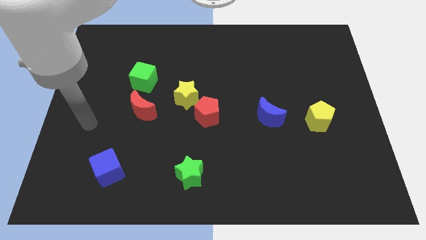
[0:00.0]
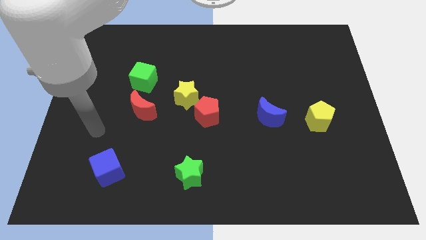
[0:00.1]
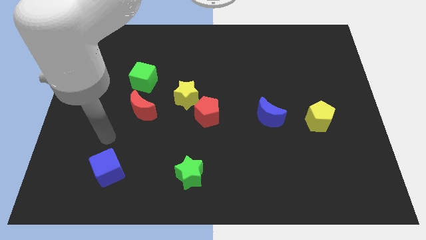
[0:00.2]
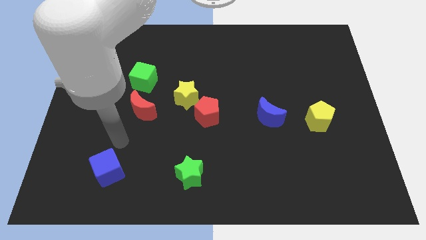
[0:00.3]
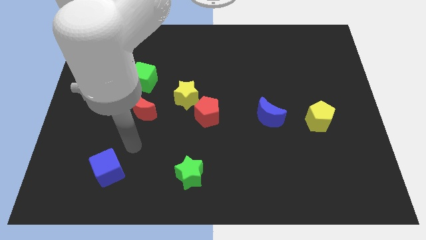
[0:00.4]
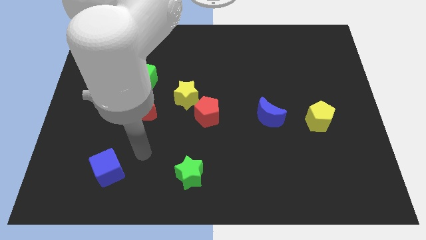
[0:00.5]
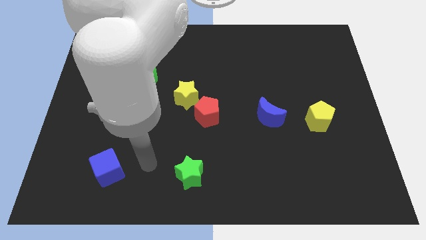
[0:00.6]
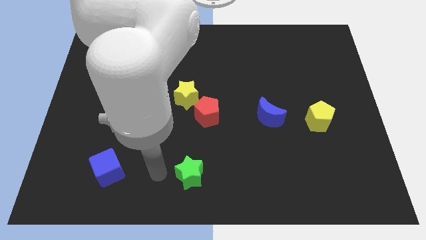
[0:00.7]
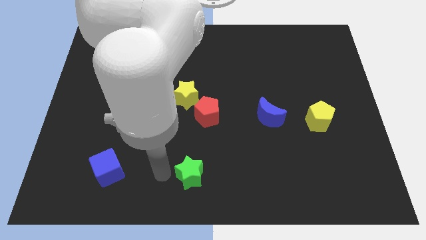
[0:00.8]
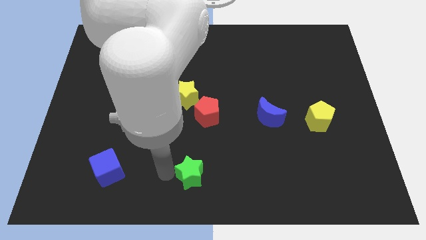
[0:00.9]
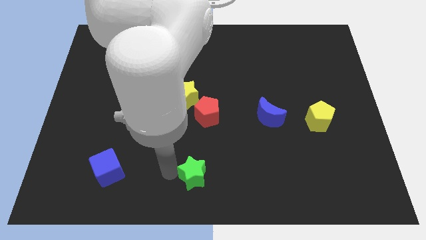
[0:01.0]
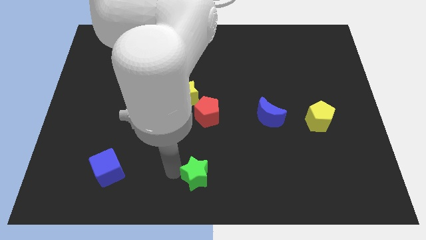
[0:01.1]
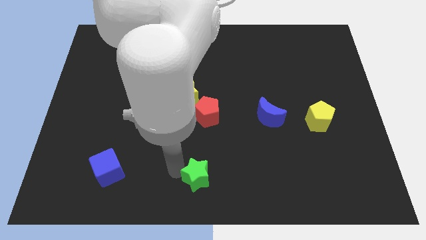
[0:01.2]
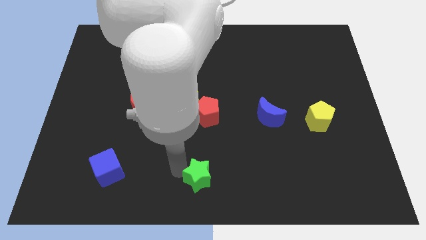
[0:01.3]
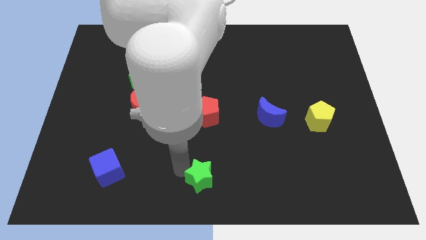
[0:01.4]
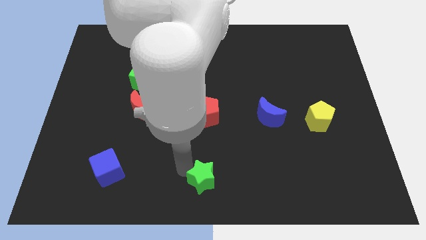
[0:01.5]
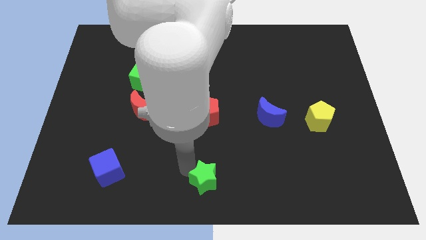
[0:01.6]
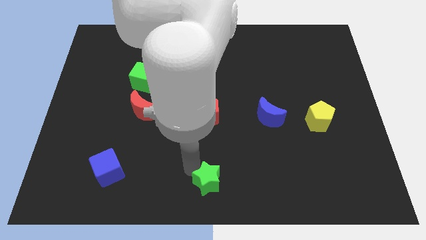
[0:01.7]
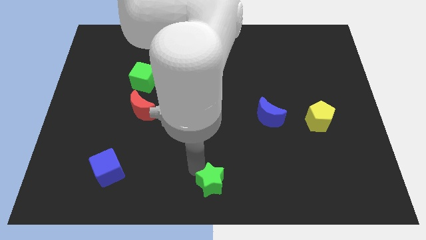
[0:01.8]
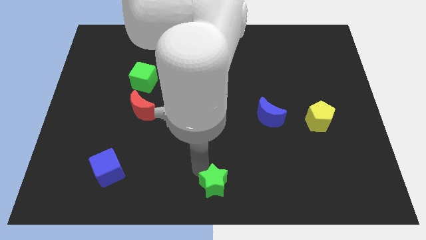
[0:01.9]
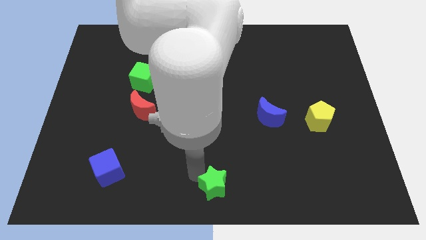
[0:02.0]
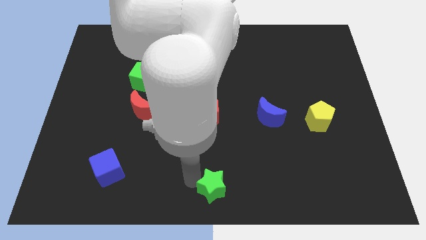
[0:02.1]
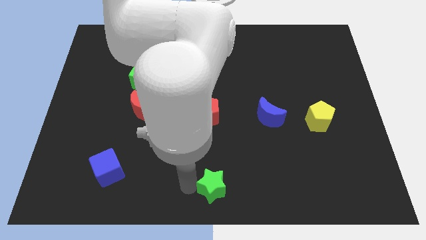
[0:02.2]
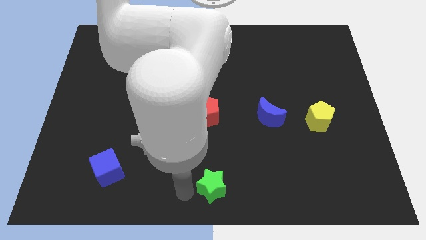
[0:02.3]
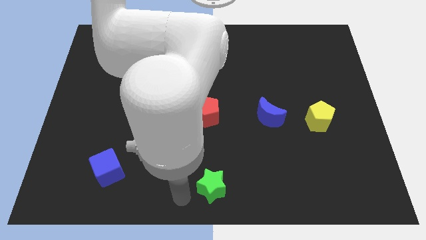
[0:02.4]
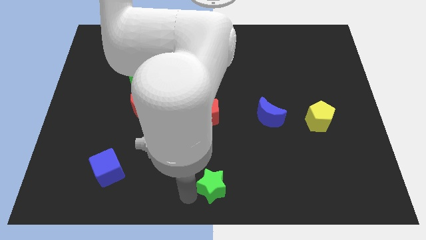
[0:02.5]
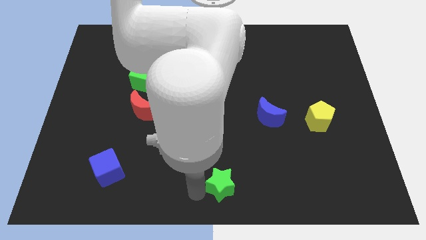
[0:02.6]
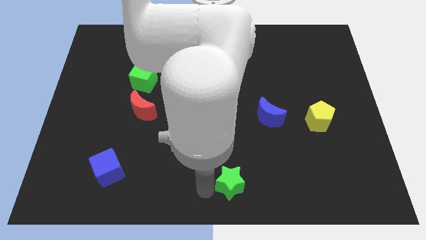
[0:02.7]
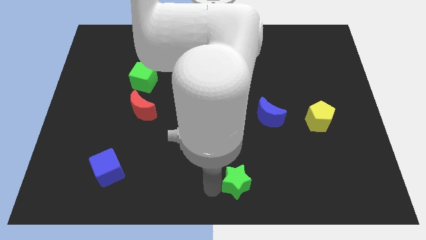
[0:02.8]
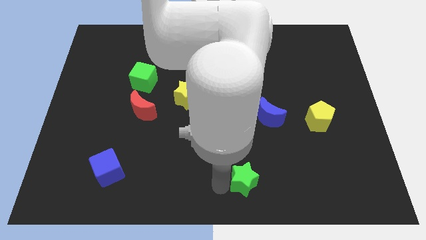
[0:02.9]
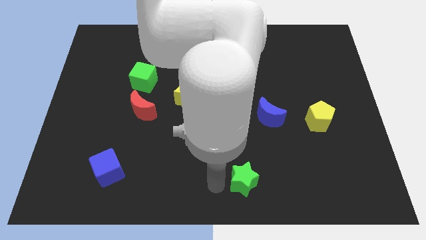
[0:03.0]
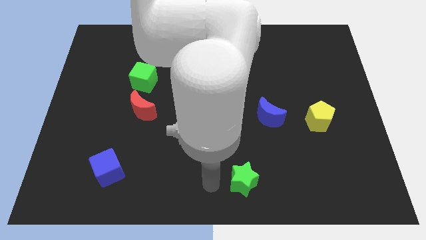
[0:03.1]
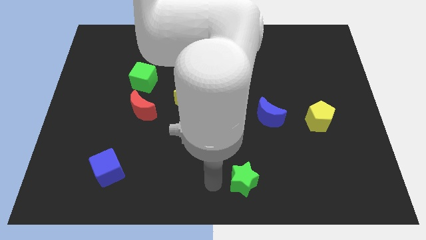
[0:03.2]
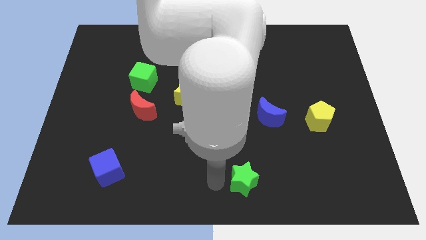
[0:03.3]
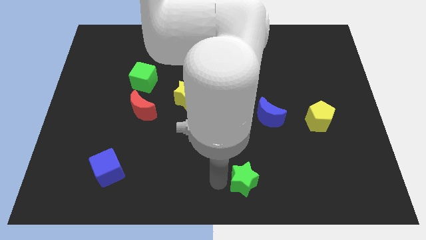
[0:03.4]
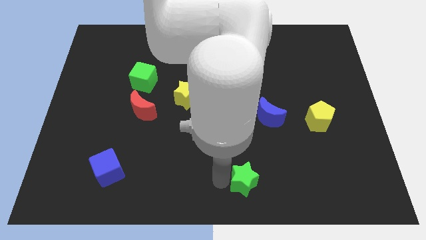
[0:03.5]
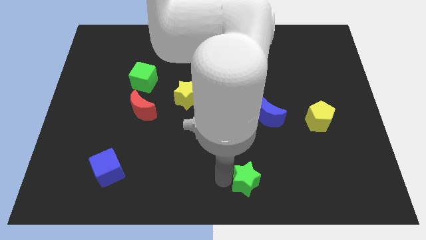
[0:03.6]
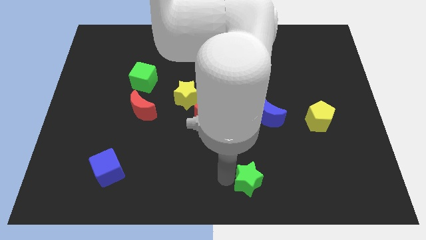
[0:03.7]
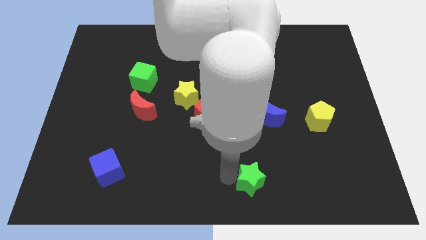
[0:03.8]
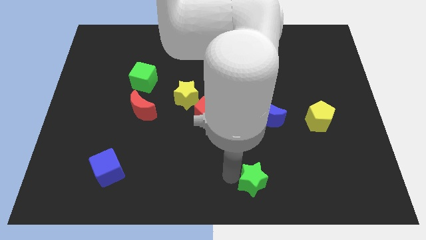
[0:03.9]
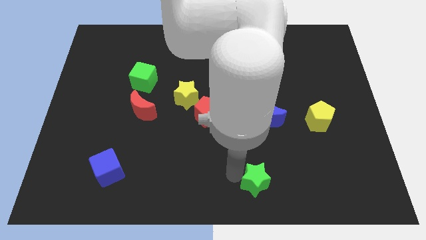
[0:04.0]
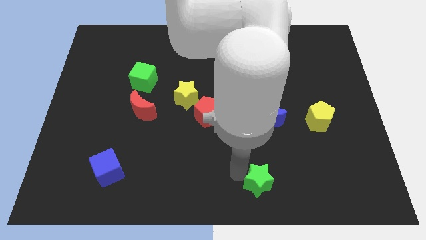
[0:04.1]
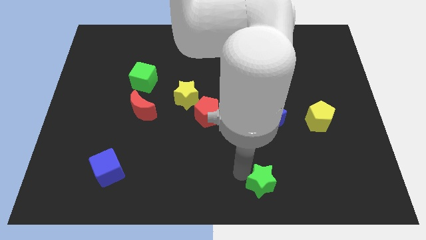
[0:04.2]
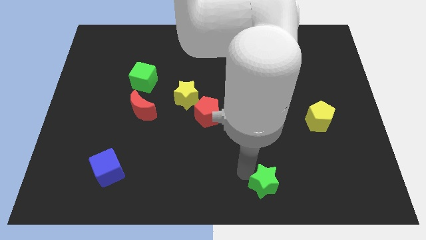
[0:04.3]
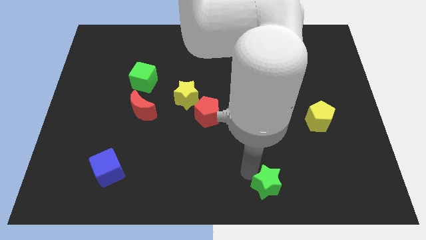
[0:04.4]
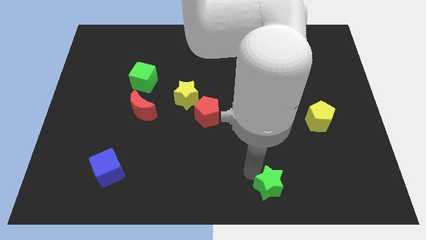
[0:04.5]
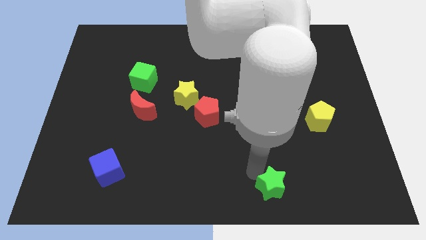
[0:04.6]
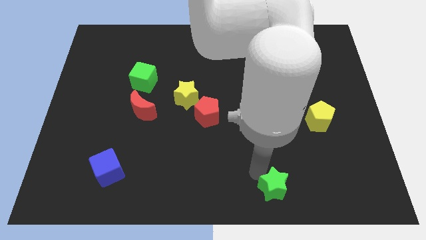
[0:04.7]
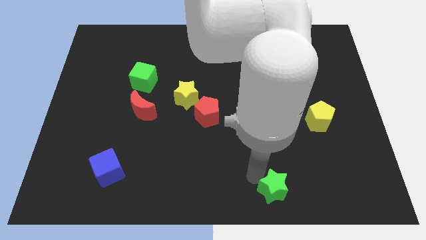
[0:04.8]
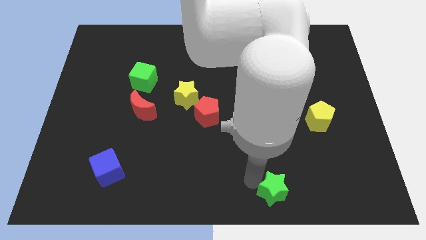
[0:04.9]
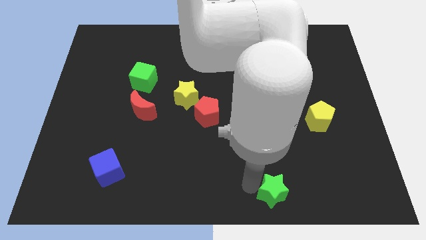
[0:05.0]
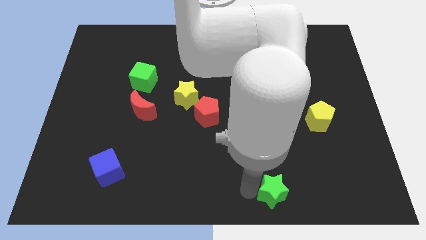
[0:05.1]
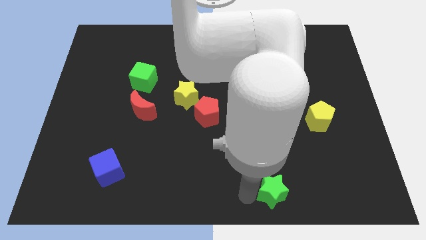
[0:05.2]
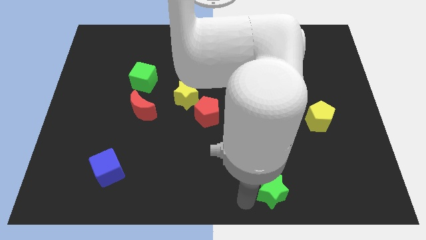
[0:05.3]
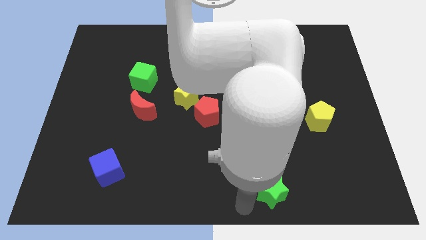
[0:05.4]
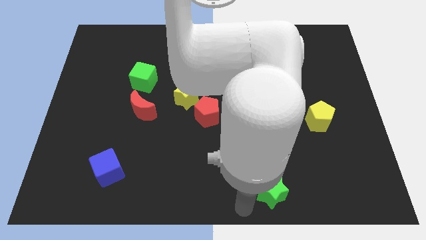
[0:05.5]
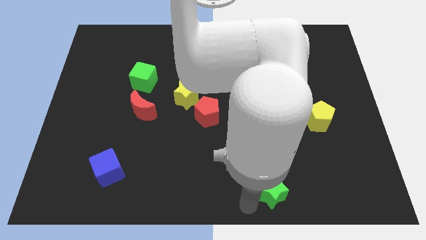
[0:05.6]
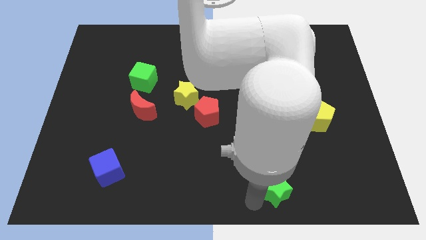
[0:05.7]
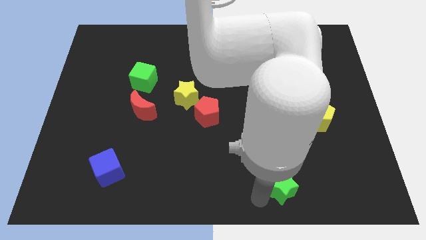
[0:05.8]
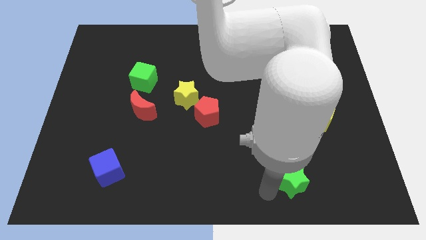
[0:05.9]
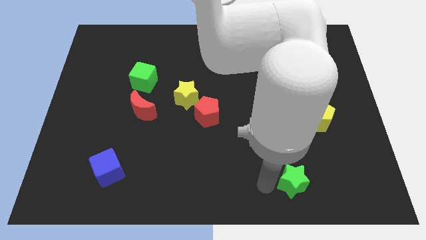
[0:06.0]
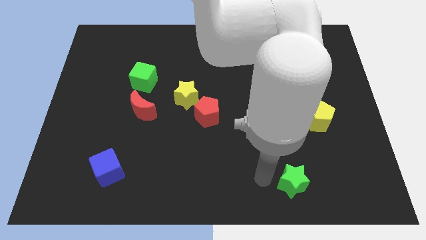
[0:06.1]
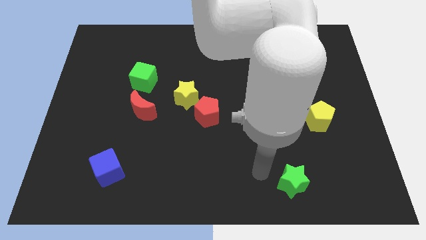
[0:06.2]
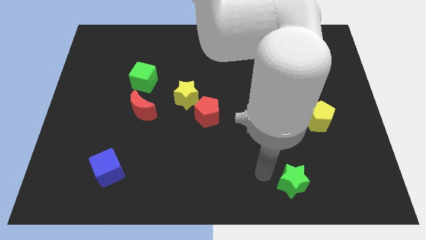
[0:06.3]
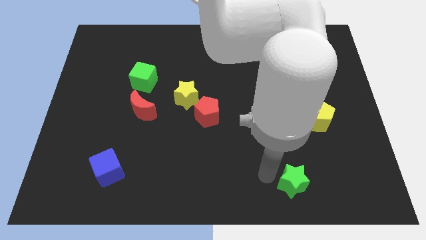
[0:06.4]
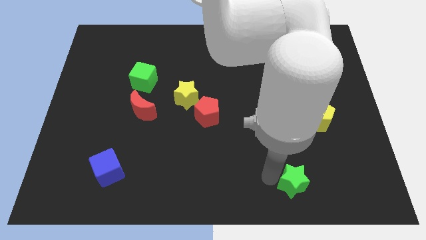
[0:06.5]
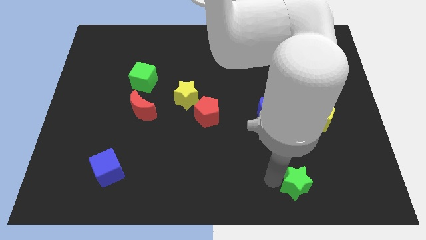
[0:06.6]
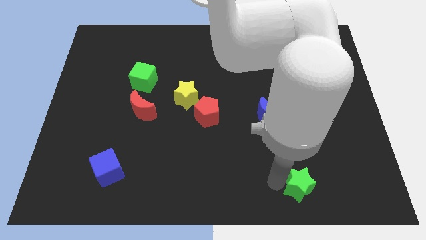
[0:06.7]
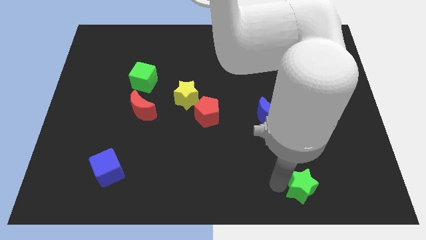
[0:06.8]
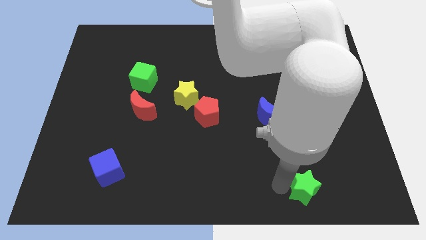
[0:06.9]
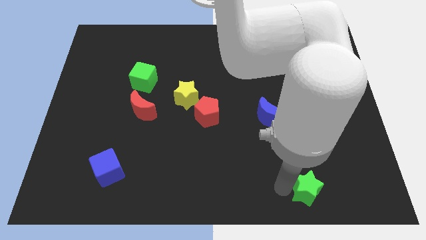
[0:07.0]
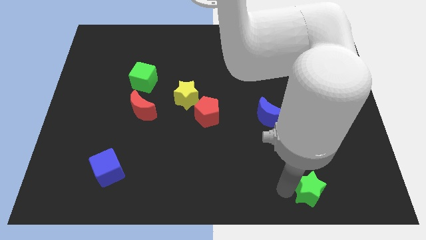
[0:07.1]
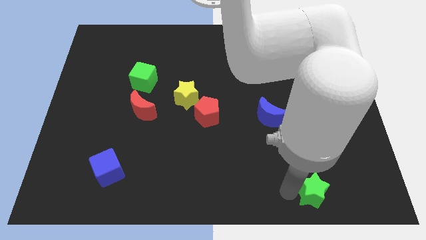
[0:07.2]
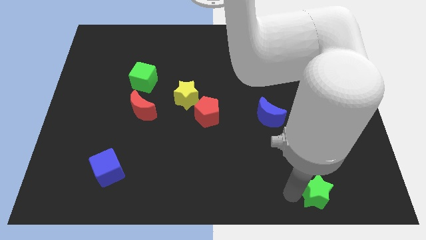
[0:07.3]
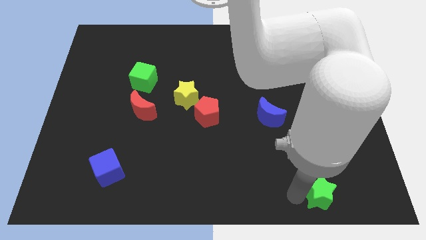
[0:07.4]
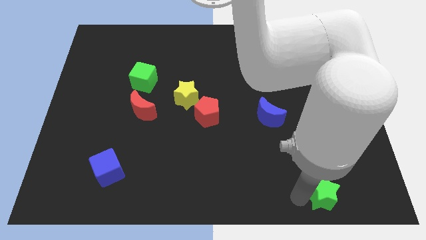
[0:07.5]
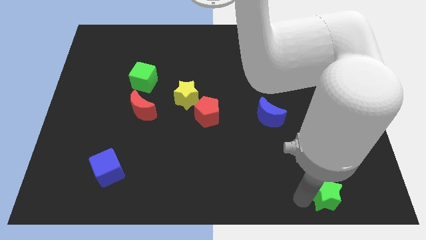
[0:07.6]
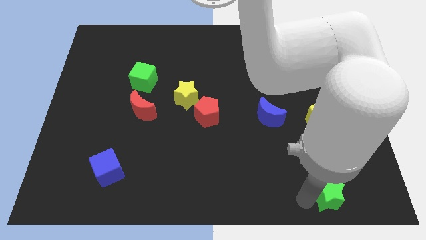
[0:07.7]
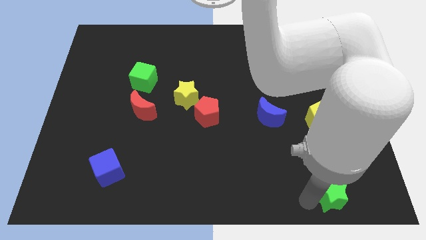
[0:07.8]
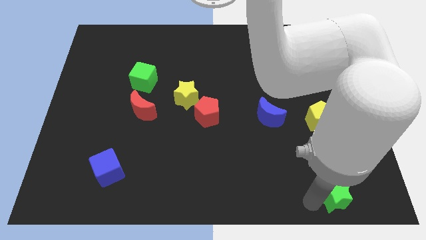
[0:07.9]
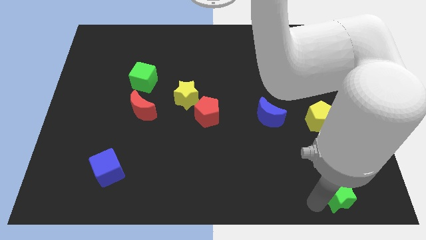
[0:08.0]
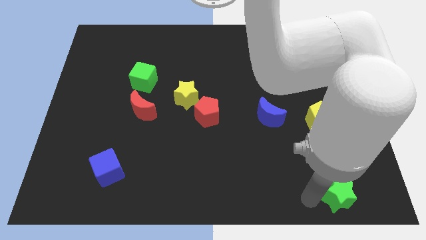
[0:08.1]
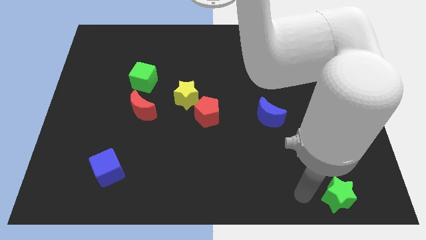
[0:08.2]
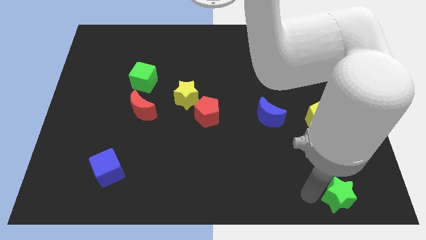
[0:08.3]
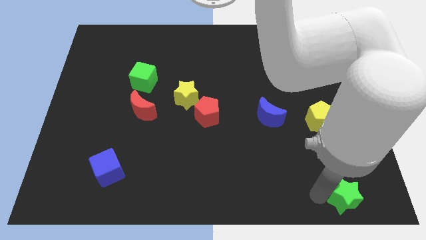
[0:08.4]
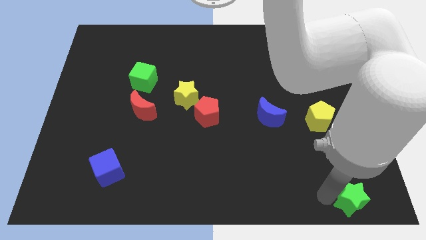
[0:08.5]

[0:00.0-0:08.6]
slide the green star to the bottom right
